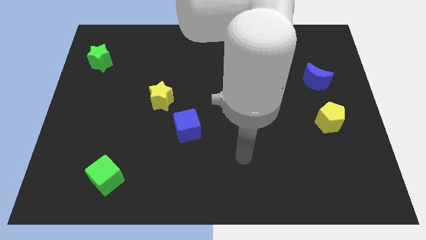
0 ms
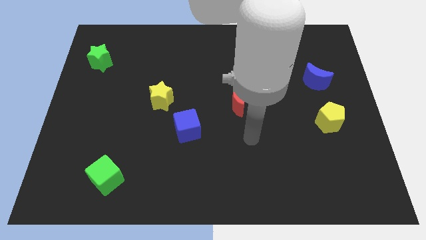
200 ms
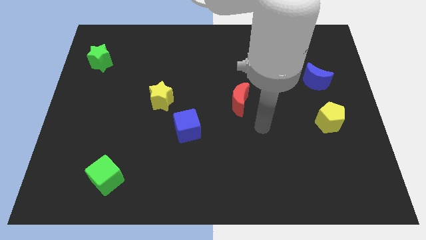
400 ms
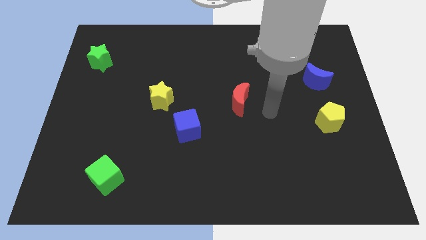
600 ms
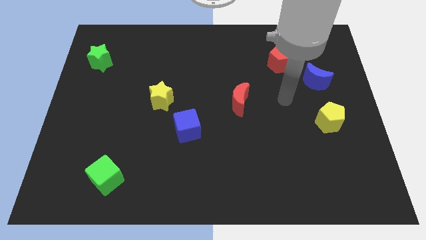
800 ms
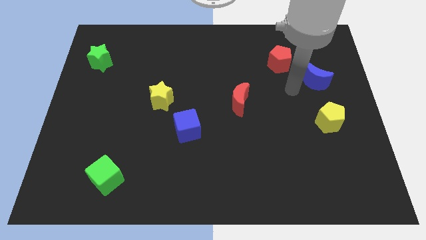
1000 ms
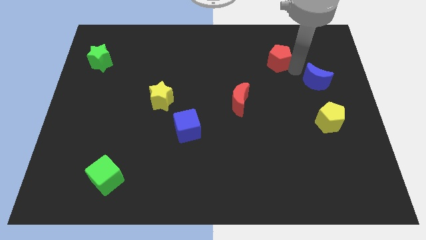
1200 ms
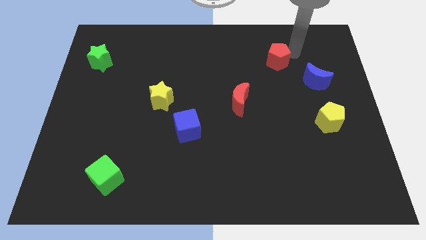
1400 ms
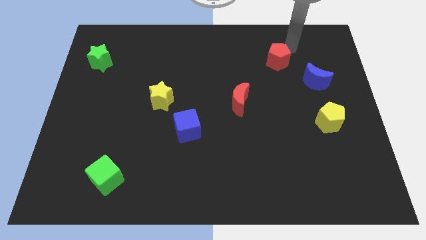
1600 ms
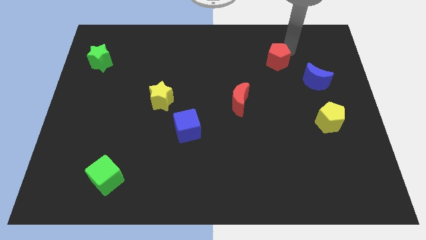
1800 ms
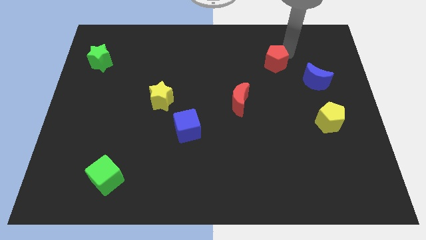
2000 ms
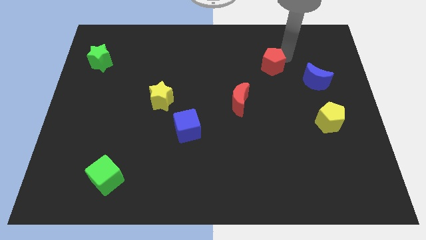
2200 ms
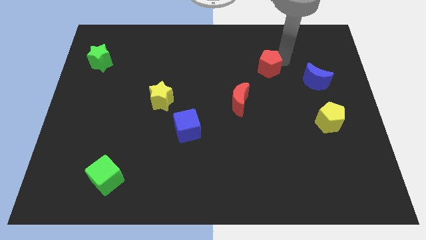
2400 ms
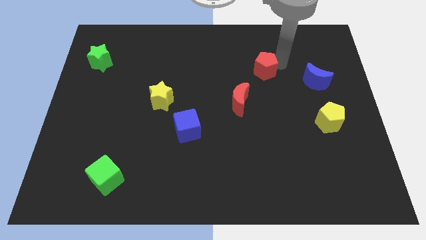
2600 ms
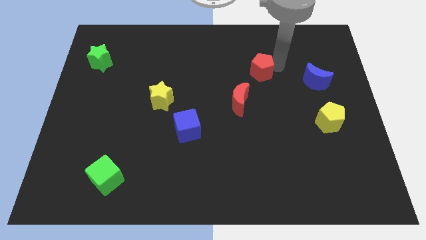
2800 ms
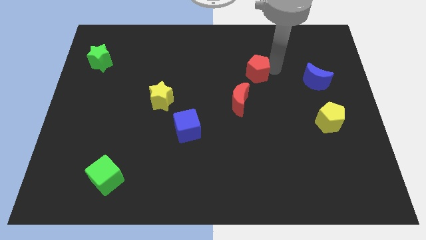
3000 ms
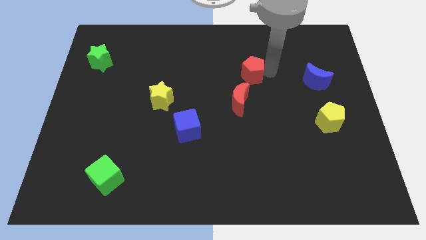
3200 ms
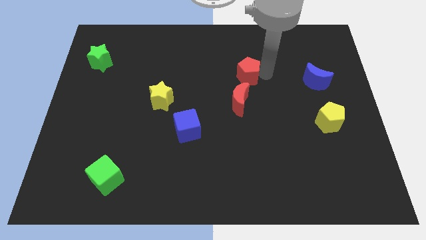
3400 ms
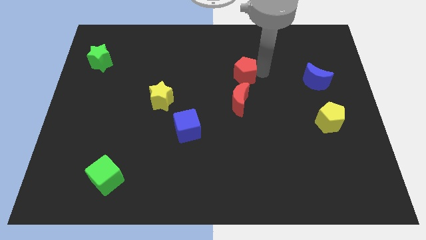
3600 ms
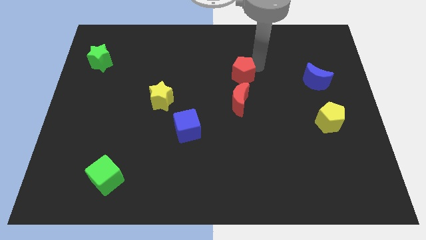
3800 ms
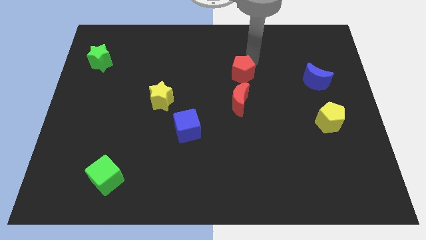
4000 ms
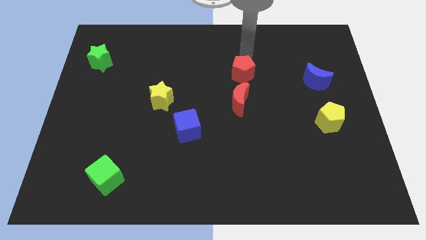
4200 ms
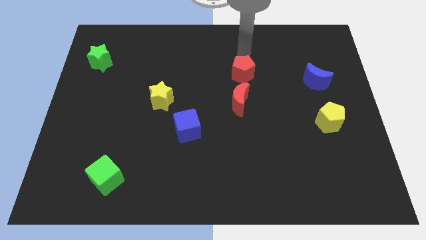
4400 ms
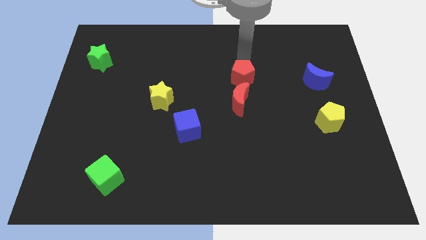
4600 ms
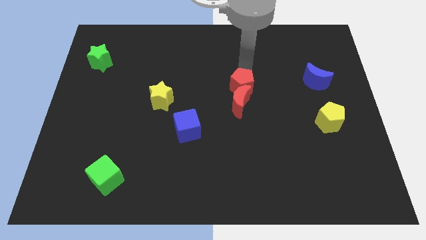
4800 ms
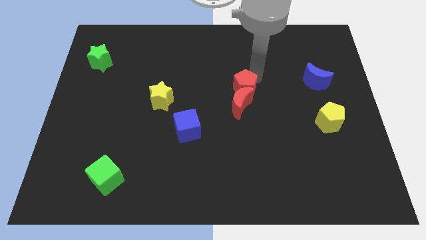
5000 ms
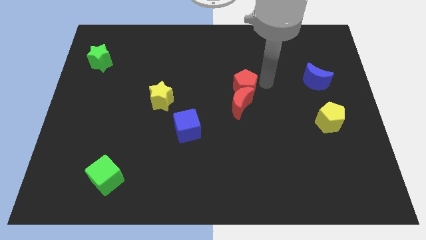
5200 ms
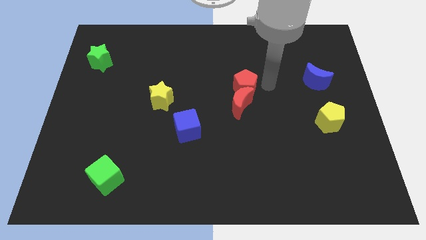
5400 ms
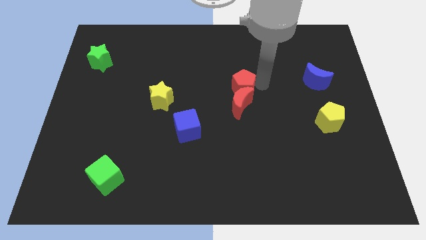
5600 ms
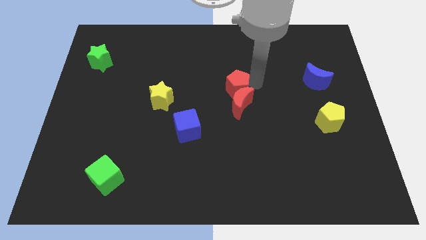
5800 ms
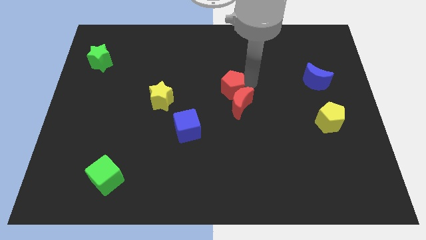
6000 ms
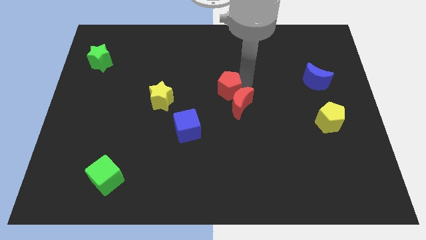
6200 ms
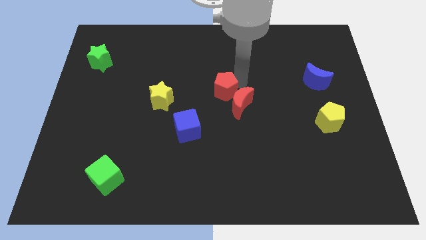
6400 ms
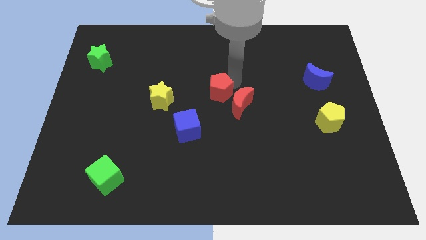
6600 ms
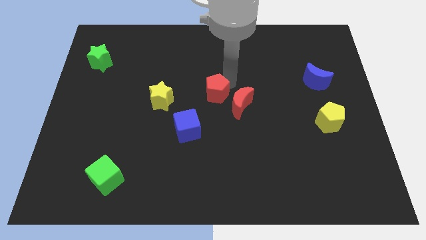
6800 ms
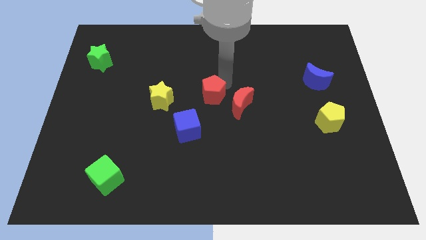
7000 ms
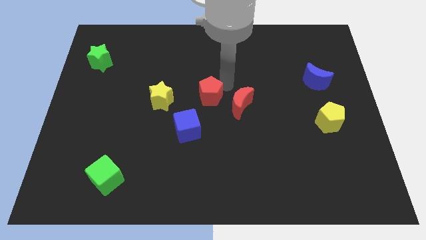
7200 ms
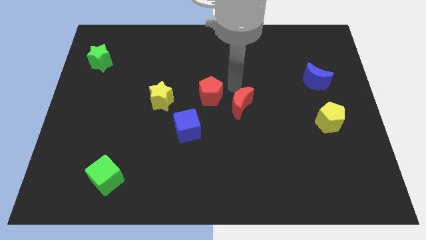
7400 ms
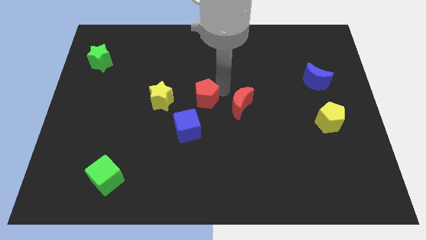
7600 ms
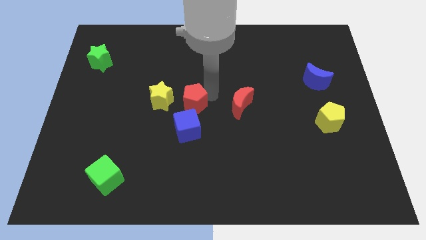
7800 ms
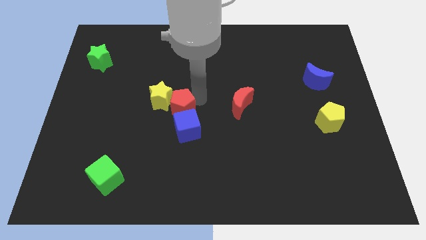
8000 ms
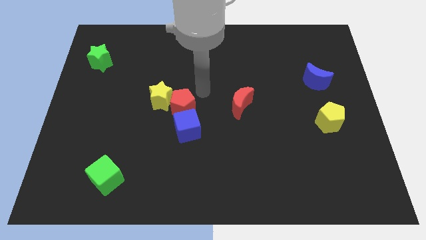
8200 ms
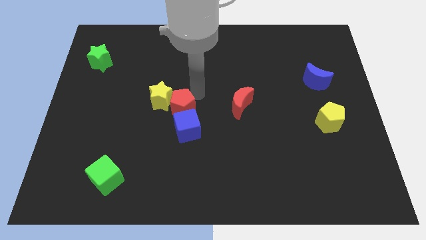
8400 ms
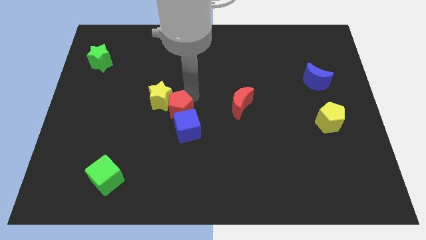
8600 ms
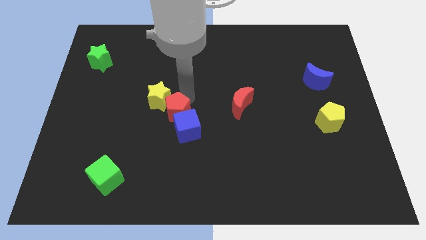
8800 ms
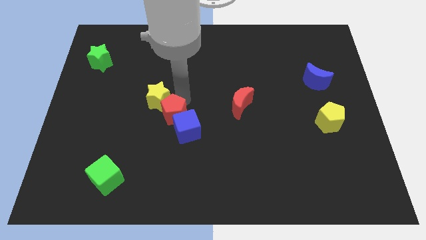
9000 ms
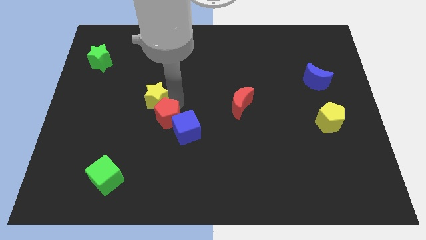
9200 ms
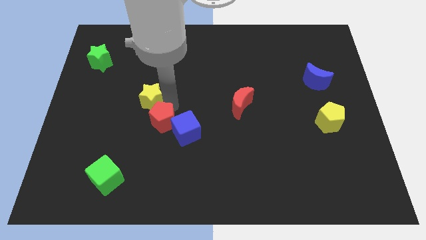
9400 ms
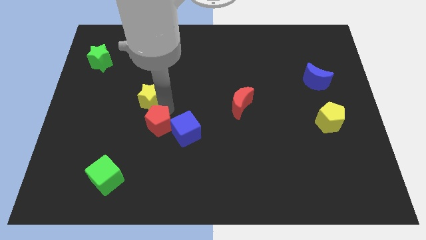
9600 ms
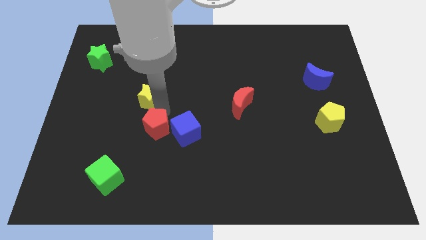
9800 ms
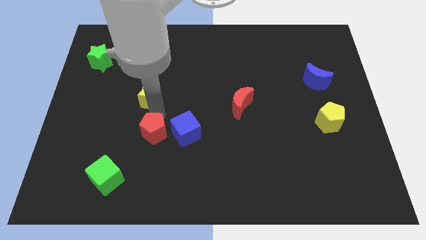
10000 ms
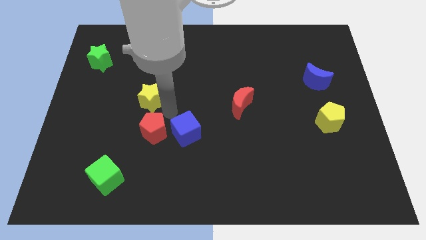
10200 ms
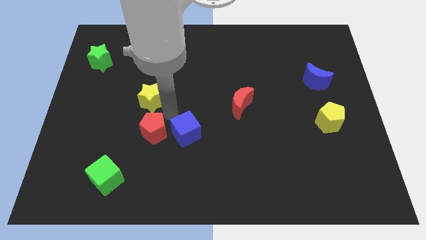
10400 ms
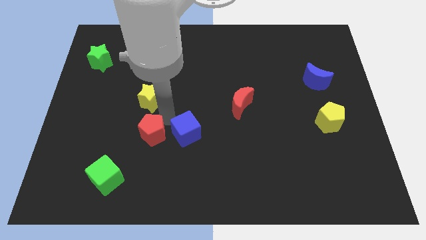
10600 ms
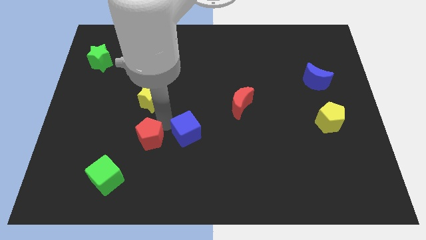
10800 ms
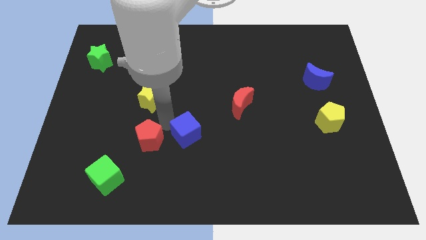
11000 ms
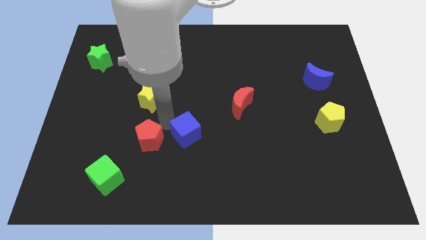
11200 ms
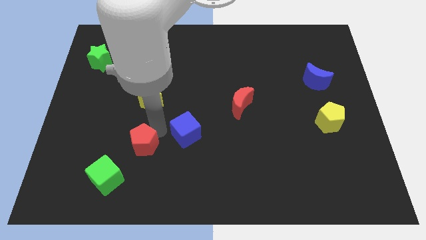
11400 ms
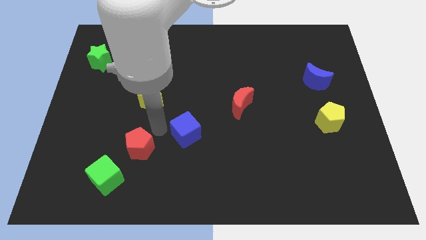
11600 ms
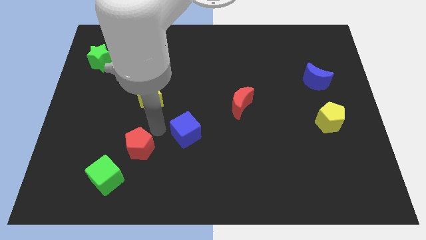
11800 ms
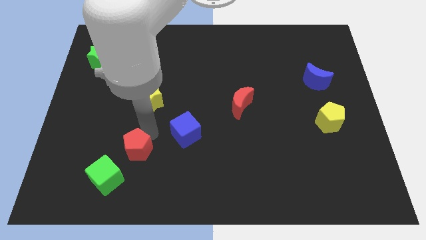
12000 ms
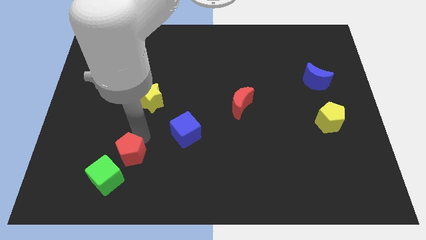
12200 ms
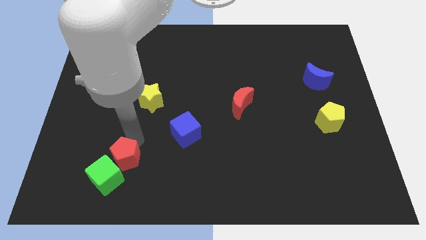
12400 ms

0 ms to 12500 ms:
put the red pentagon to the green cube

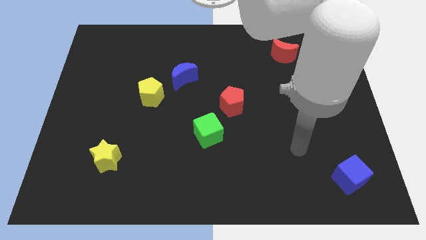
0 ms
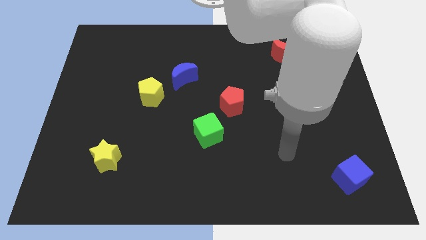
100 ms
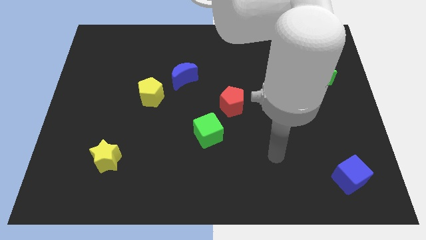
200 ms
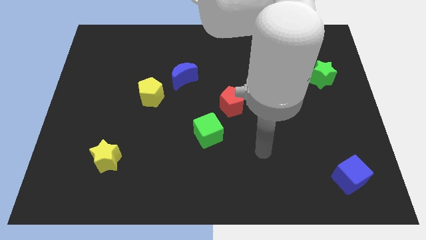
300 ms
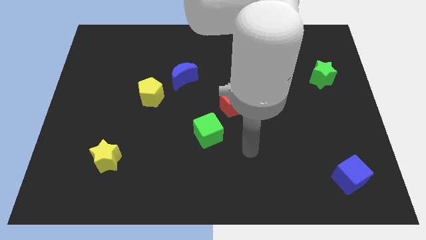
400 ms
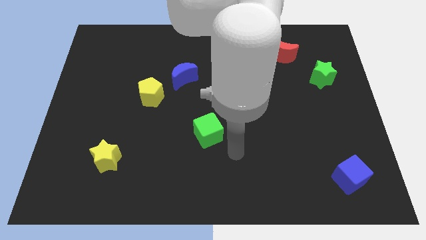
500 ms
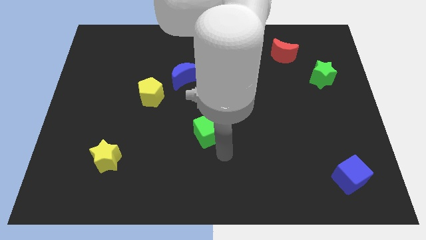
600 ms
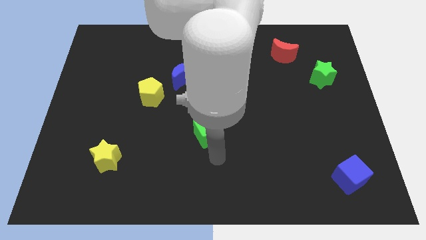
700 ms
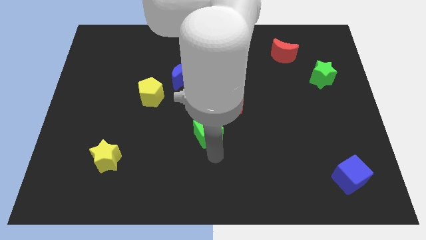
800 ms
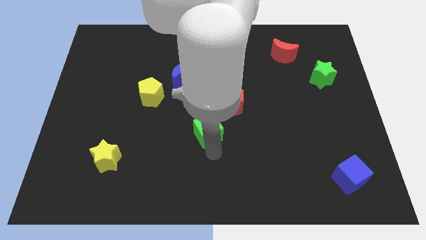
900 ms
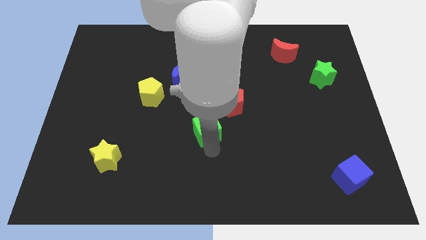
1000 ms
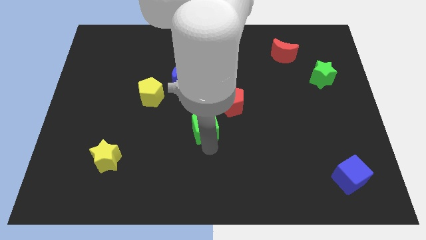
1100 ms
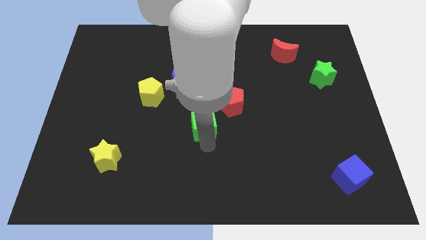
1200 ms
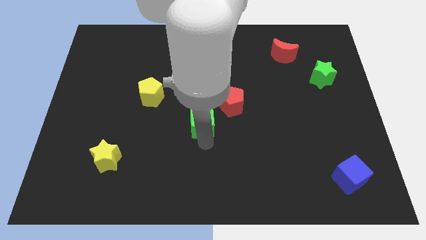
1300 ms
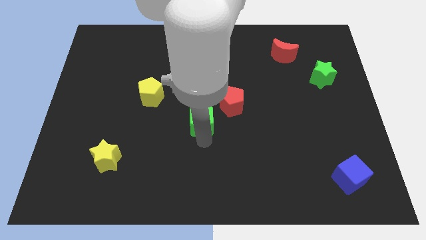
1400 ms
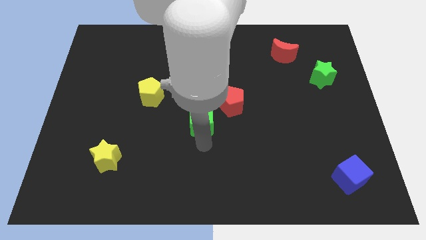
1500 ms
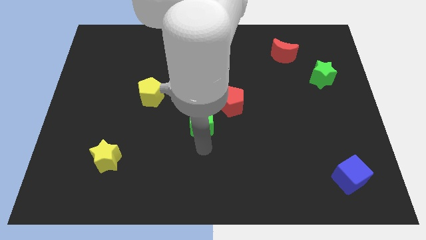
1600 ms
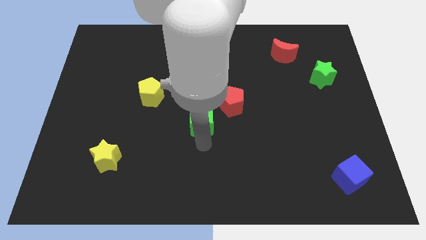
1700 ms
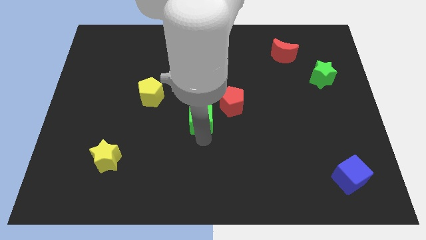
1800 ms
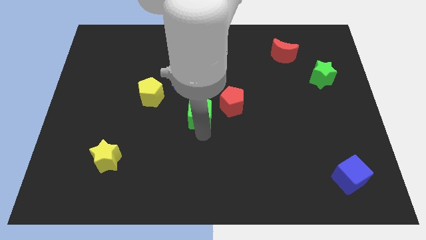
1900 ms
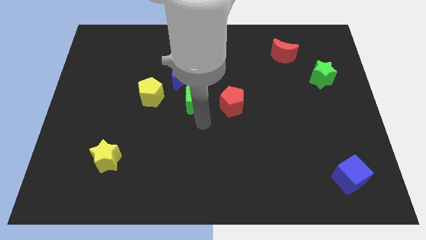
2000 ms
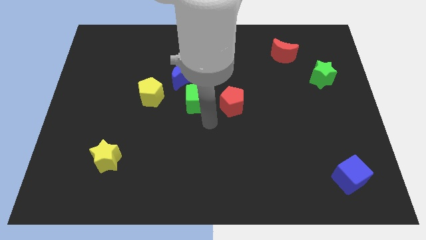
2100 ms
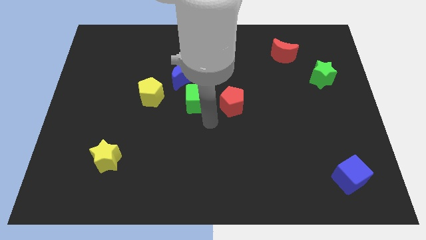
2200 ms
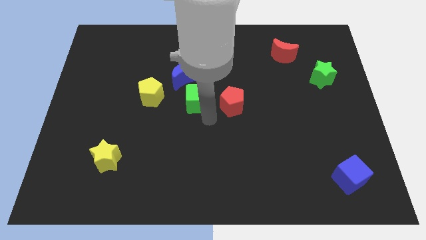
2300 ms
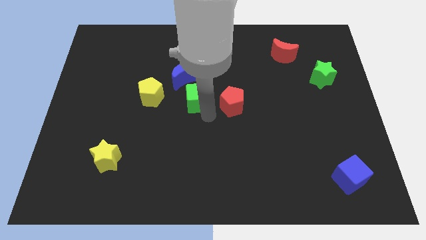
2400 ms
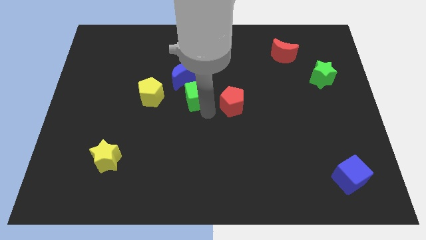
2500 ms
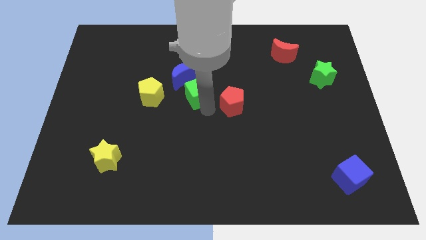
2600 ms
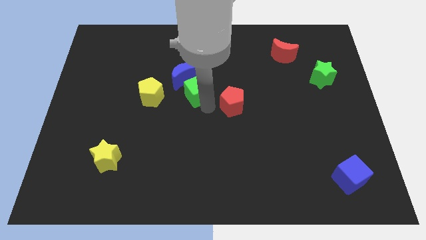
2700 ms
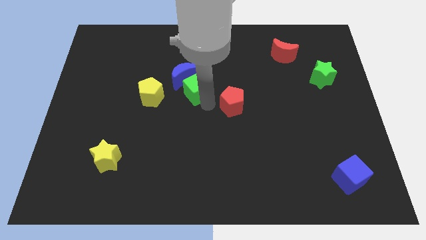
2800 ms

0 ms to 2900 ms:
put the green cube towards the blue moon
